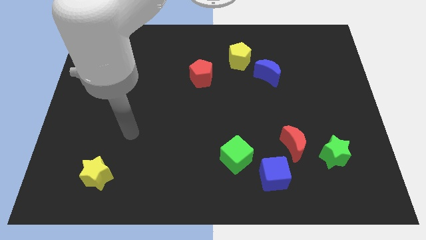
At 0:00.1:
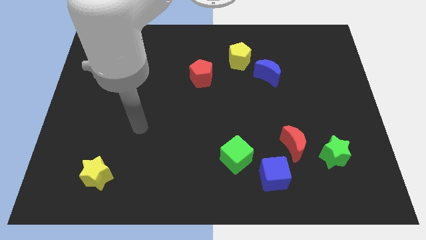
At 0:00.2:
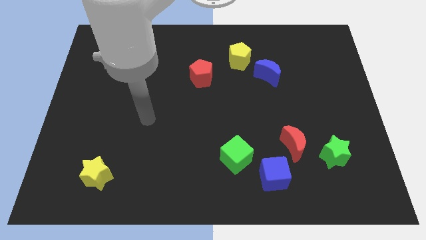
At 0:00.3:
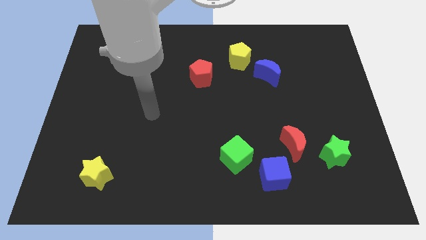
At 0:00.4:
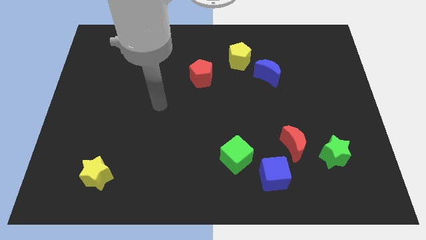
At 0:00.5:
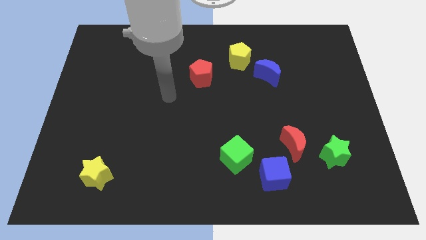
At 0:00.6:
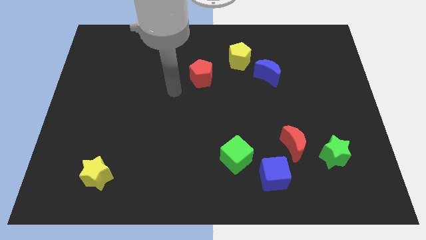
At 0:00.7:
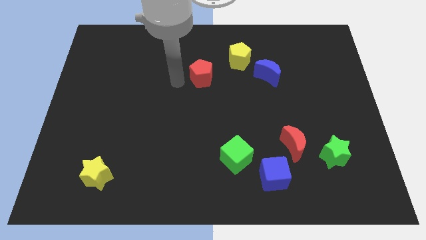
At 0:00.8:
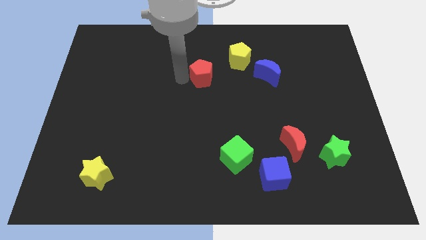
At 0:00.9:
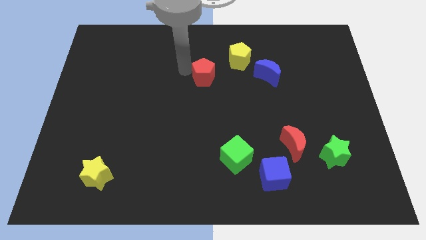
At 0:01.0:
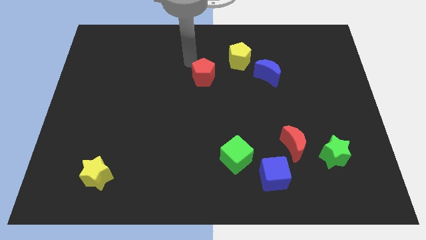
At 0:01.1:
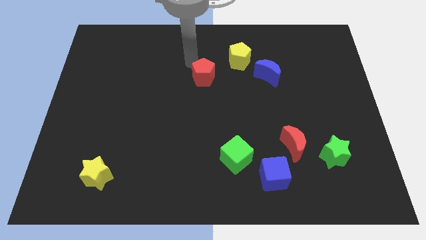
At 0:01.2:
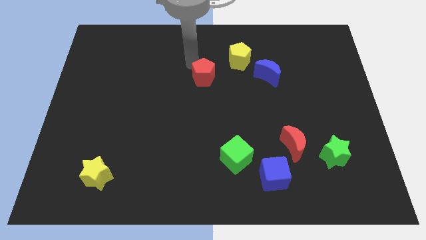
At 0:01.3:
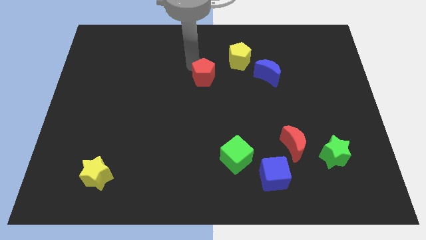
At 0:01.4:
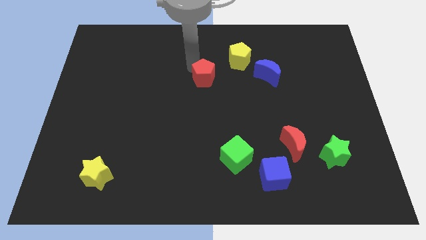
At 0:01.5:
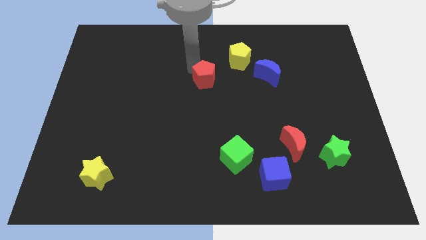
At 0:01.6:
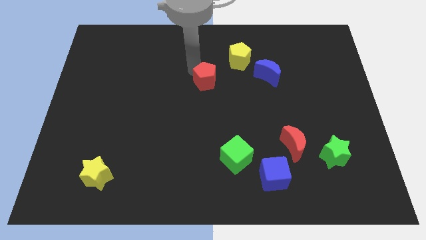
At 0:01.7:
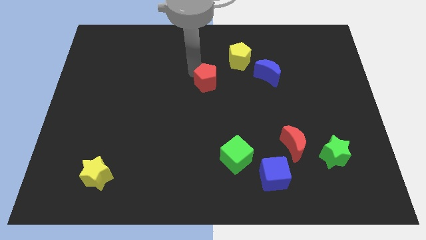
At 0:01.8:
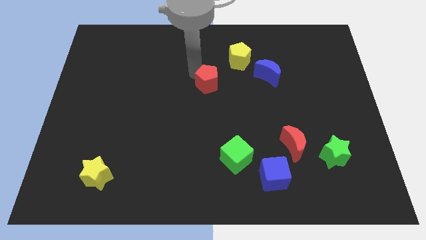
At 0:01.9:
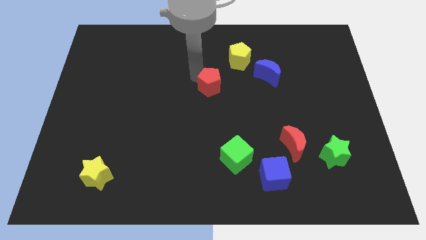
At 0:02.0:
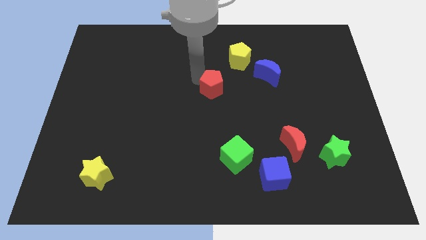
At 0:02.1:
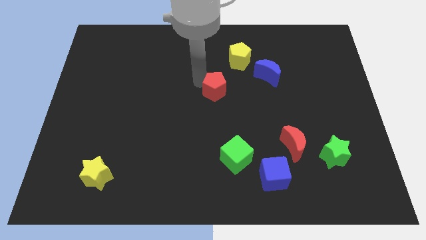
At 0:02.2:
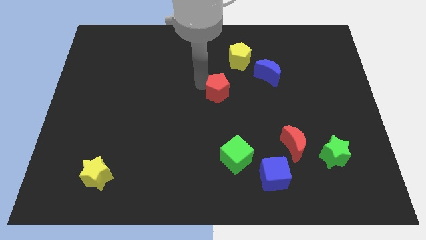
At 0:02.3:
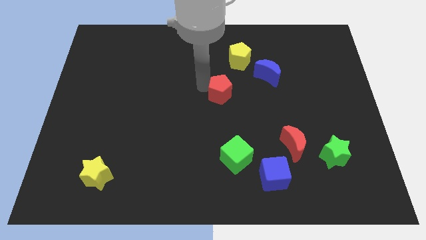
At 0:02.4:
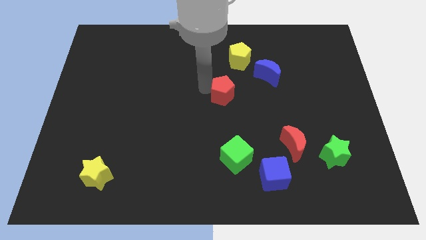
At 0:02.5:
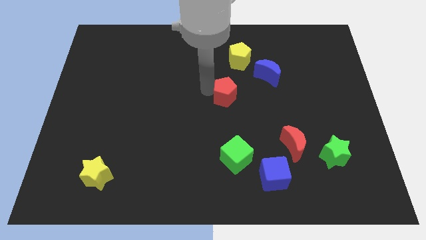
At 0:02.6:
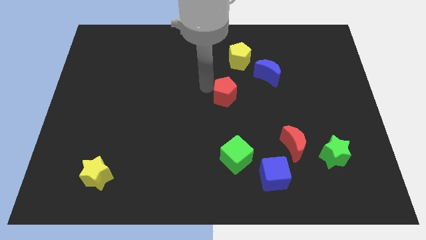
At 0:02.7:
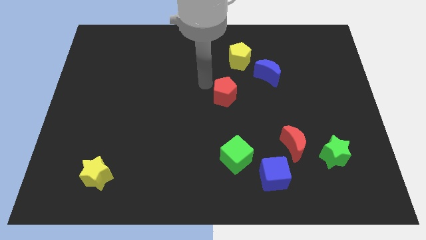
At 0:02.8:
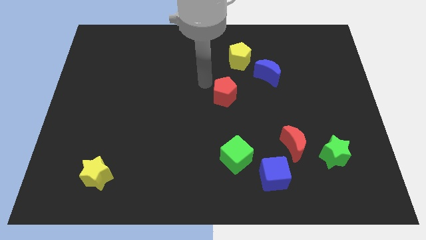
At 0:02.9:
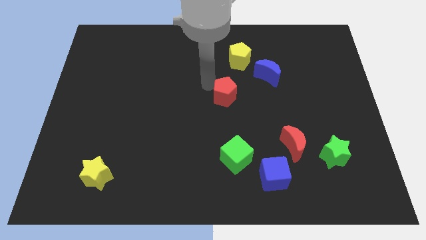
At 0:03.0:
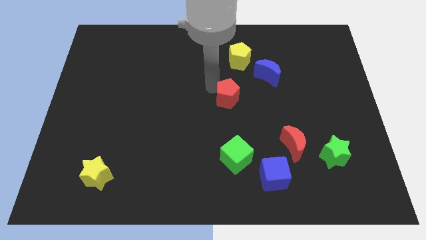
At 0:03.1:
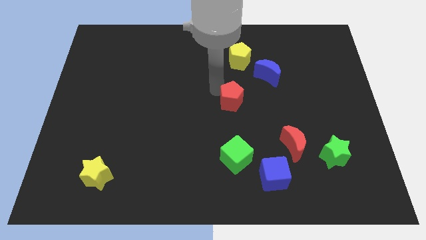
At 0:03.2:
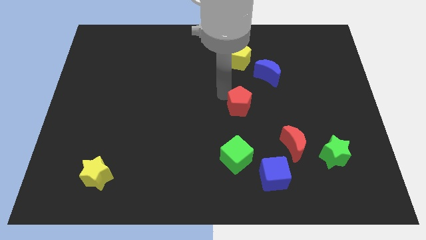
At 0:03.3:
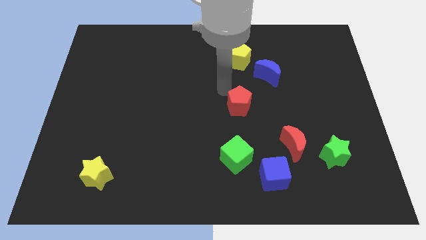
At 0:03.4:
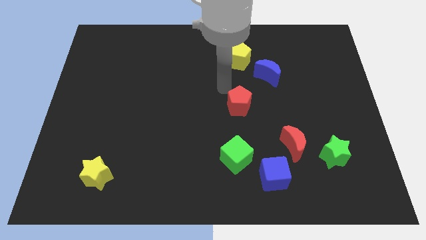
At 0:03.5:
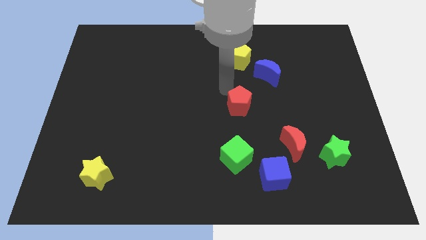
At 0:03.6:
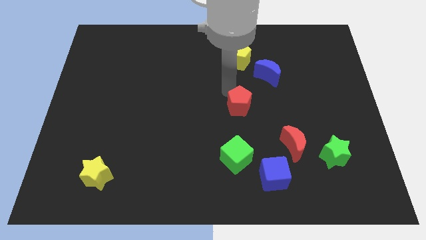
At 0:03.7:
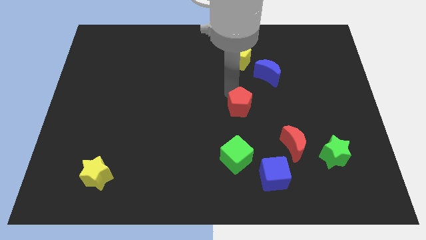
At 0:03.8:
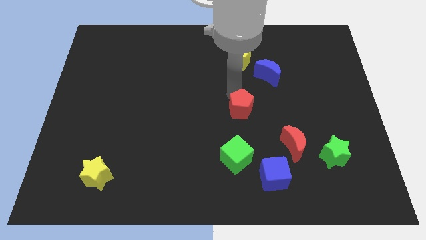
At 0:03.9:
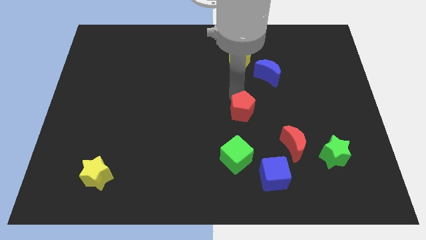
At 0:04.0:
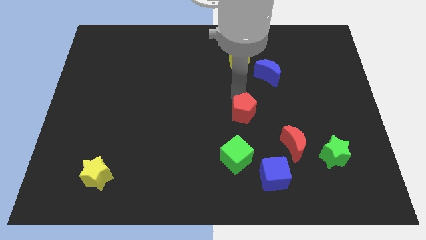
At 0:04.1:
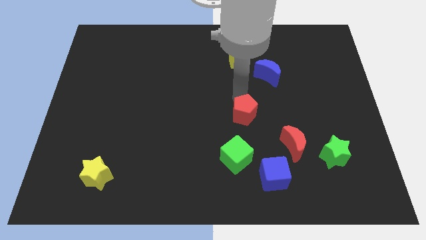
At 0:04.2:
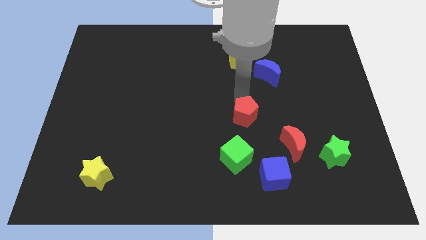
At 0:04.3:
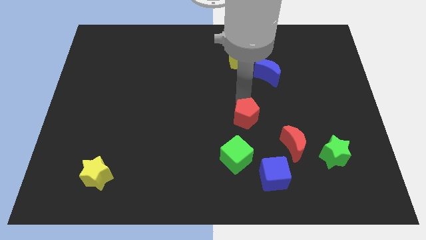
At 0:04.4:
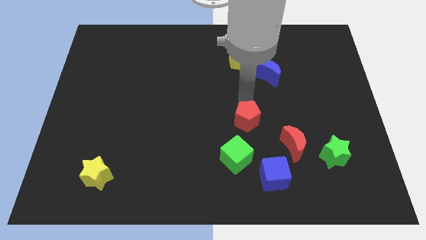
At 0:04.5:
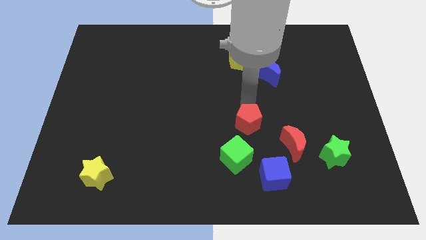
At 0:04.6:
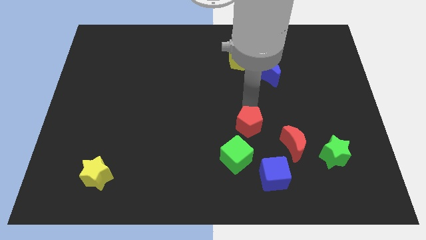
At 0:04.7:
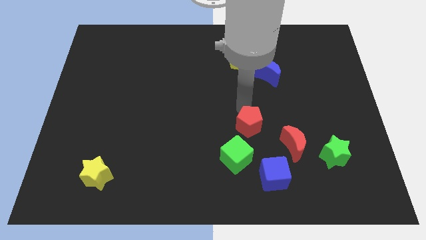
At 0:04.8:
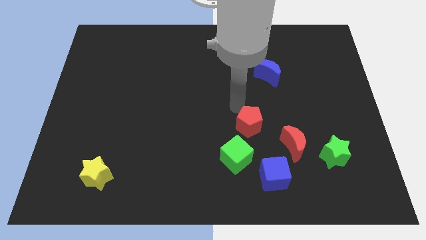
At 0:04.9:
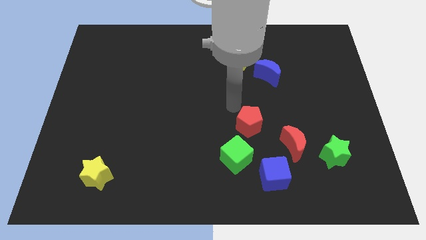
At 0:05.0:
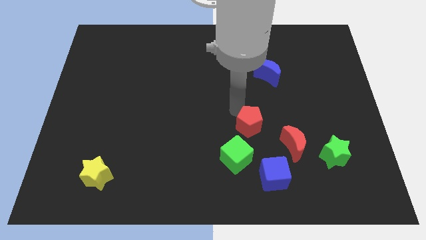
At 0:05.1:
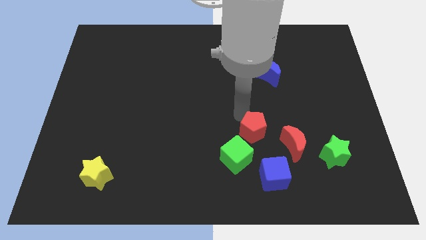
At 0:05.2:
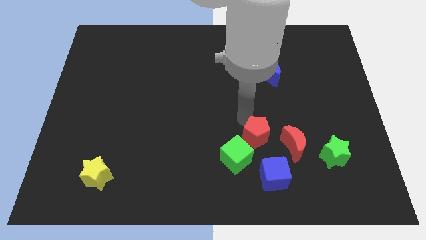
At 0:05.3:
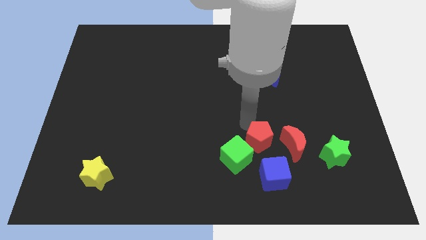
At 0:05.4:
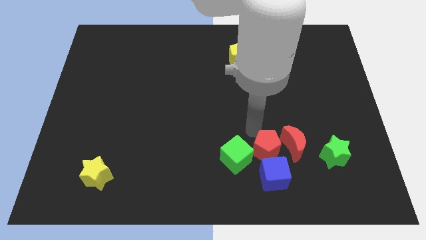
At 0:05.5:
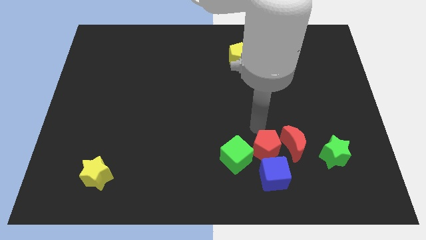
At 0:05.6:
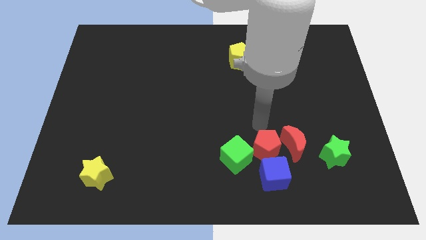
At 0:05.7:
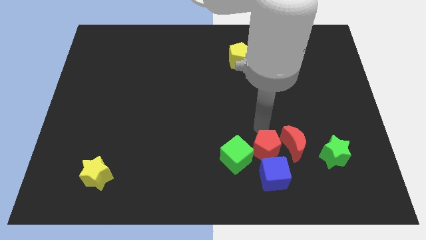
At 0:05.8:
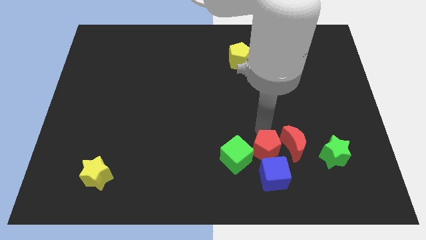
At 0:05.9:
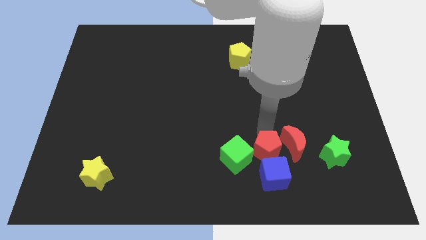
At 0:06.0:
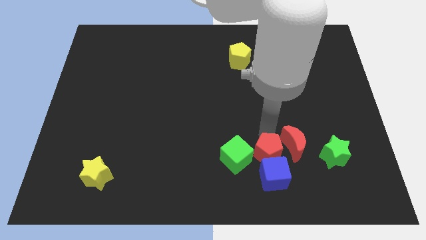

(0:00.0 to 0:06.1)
push the red pentagon close to the blue cube
